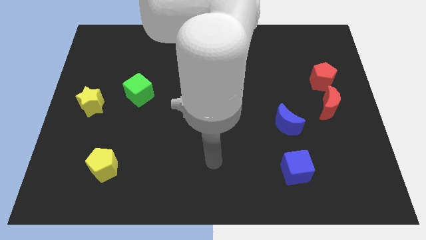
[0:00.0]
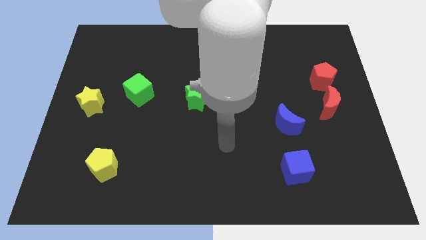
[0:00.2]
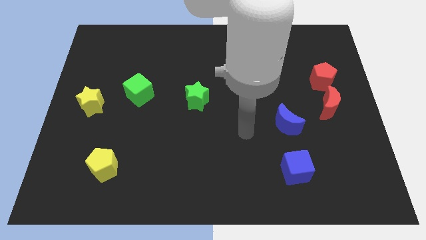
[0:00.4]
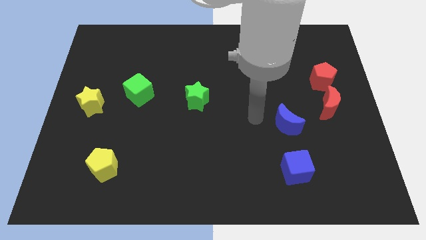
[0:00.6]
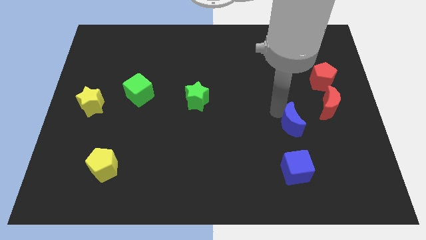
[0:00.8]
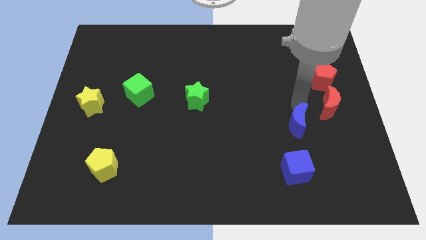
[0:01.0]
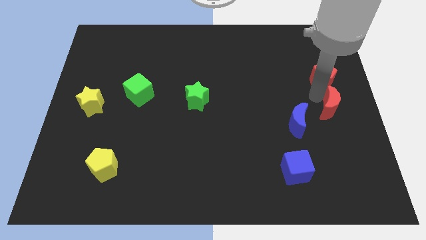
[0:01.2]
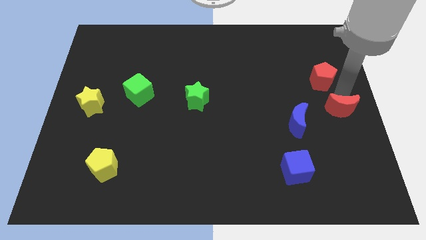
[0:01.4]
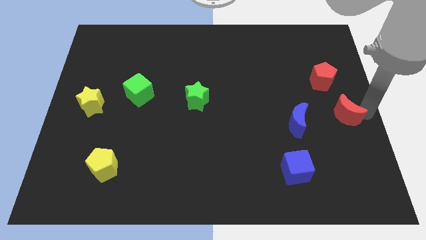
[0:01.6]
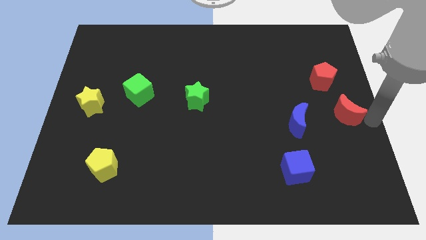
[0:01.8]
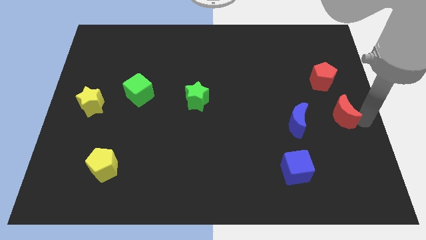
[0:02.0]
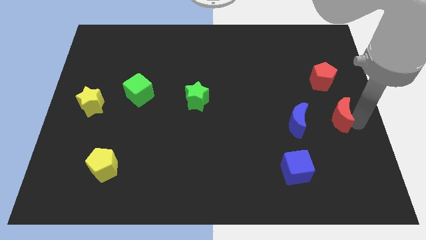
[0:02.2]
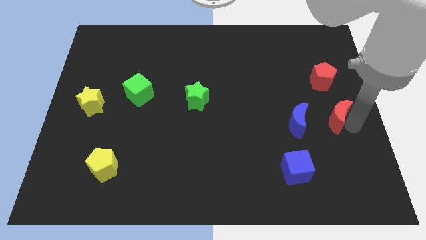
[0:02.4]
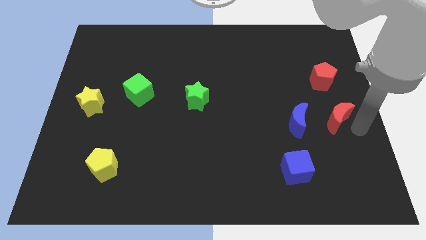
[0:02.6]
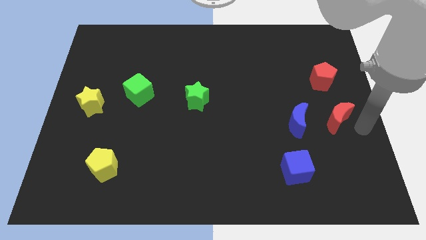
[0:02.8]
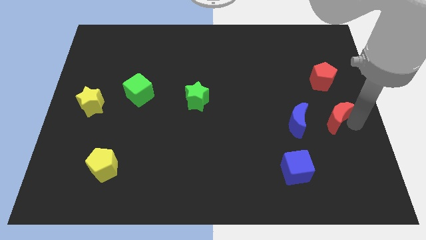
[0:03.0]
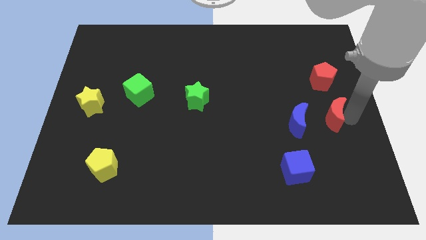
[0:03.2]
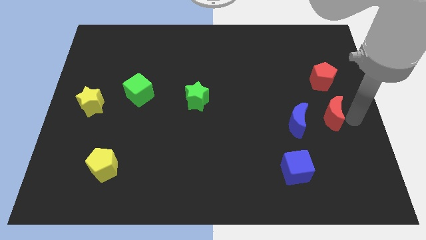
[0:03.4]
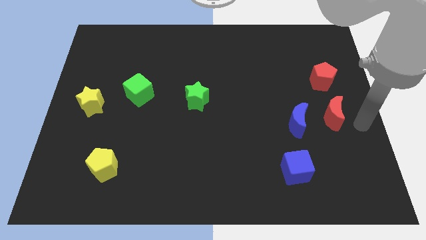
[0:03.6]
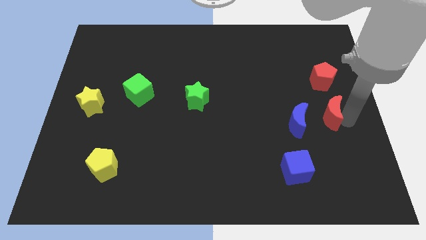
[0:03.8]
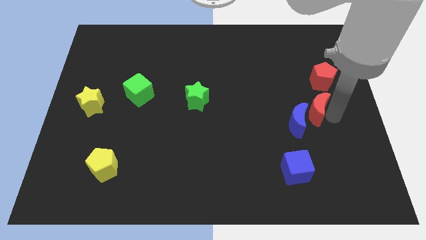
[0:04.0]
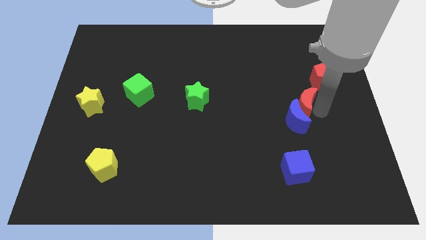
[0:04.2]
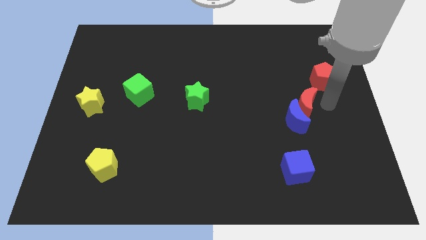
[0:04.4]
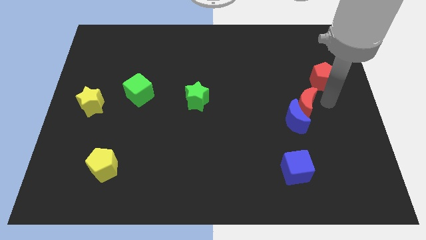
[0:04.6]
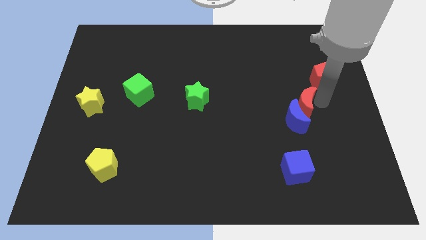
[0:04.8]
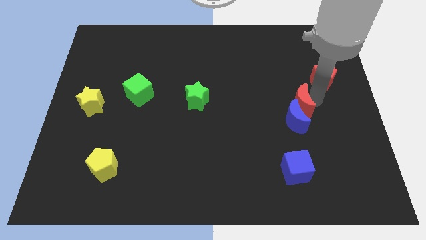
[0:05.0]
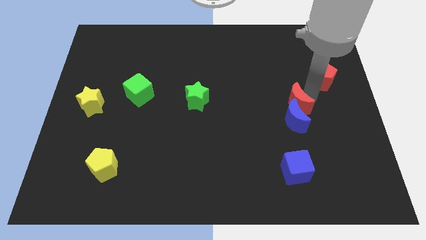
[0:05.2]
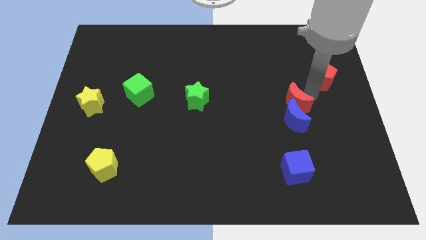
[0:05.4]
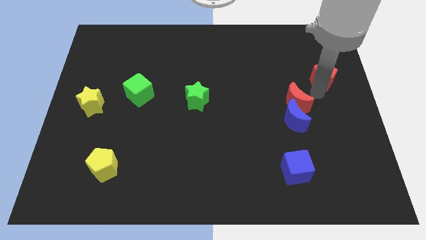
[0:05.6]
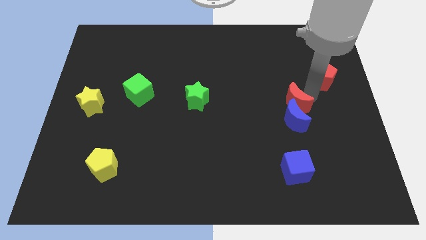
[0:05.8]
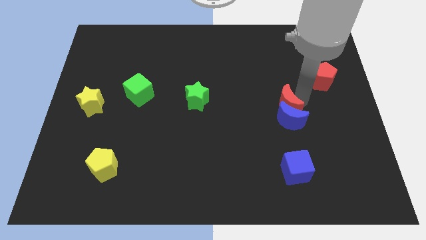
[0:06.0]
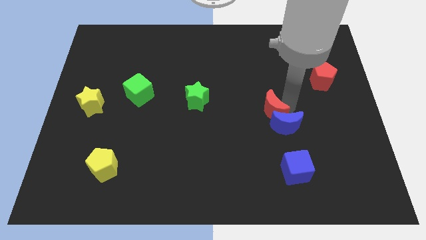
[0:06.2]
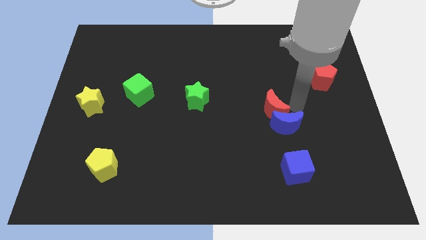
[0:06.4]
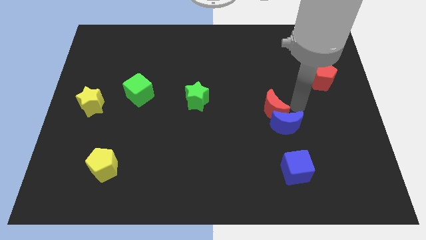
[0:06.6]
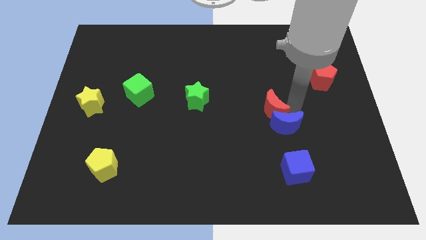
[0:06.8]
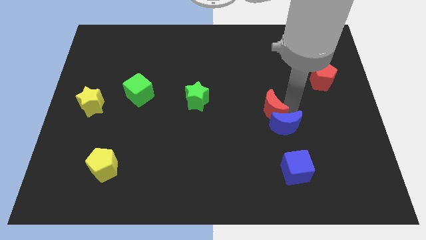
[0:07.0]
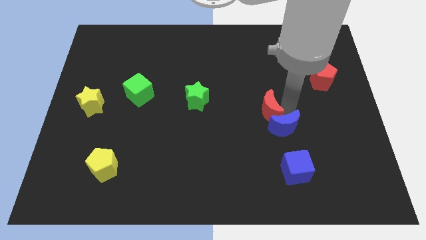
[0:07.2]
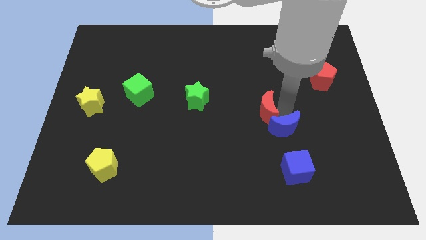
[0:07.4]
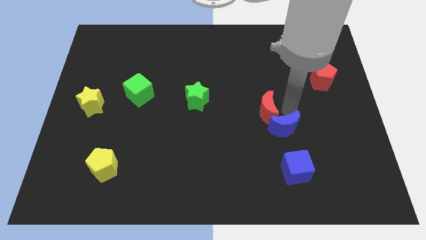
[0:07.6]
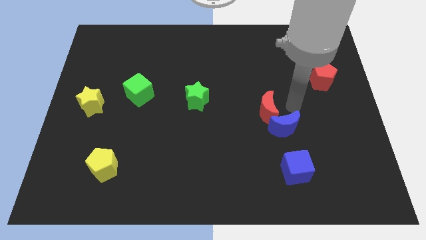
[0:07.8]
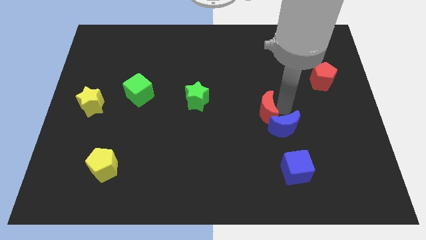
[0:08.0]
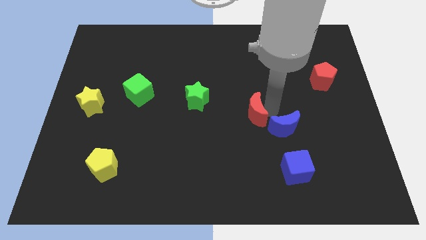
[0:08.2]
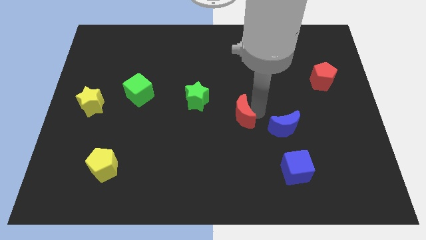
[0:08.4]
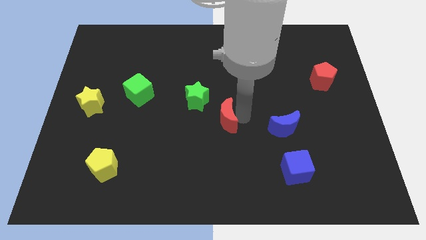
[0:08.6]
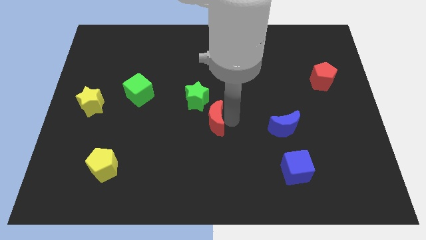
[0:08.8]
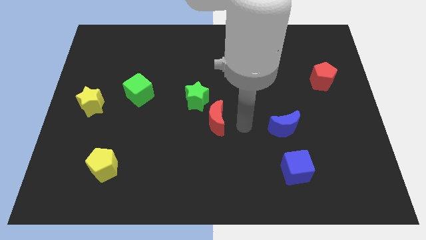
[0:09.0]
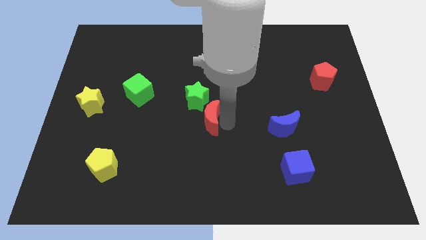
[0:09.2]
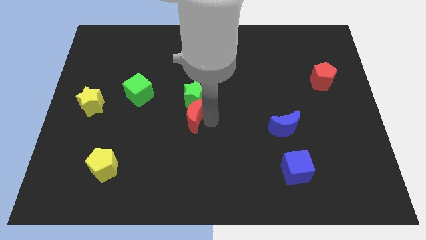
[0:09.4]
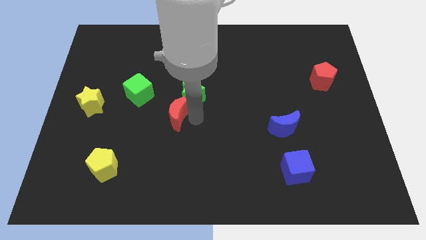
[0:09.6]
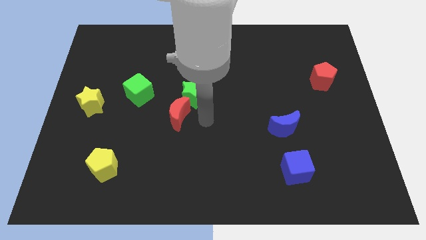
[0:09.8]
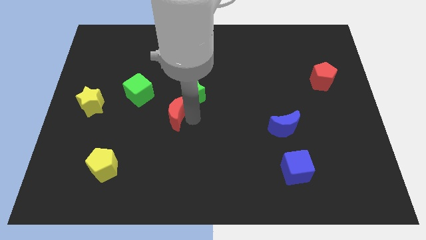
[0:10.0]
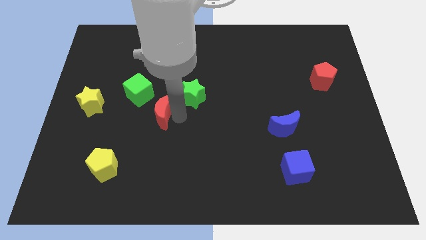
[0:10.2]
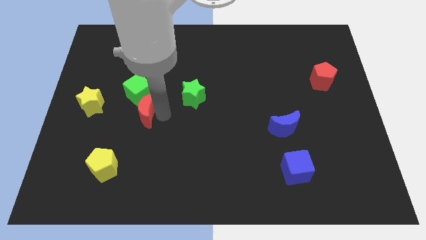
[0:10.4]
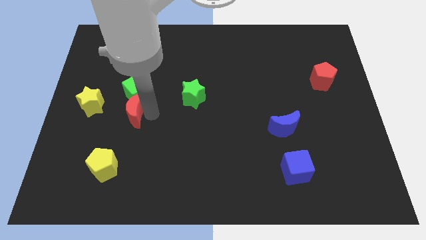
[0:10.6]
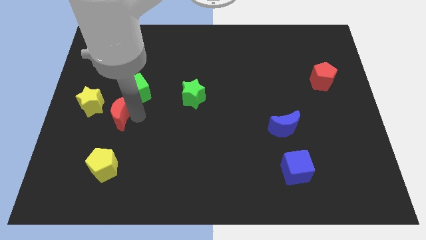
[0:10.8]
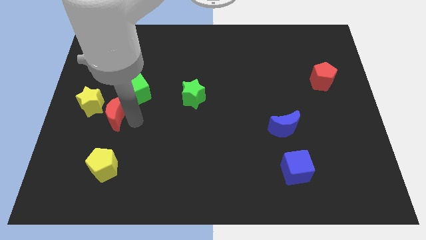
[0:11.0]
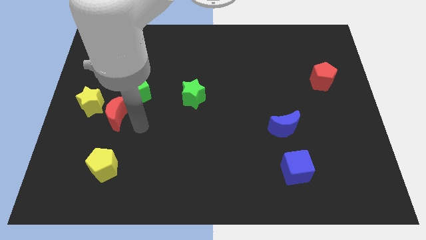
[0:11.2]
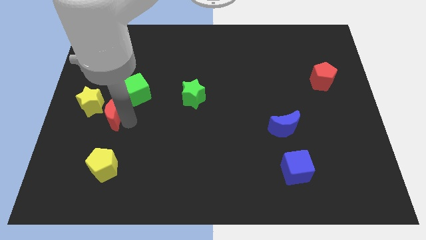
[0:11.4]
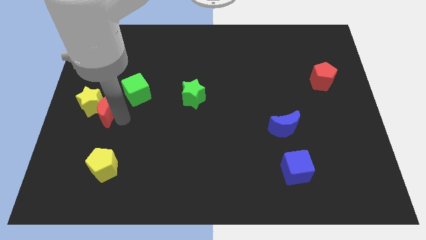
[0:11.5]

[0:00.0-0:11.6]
move the red moon next to the yellow star

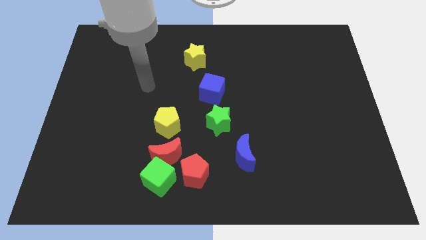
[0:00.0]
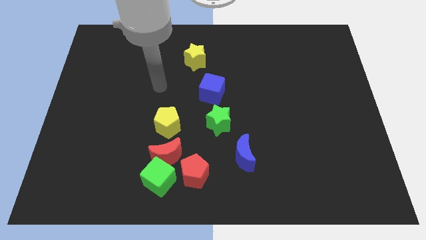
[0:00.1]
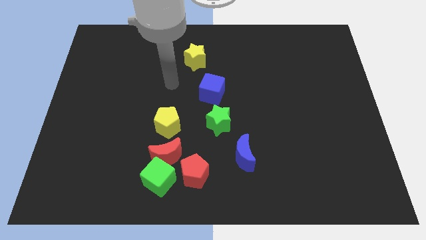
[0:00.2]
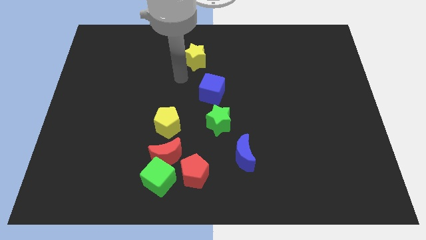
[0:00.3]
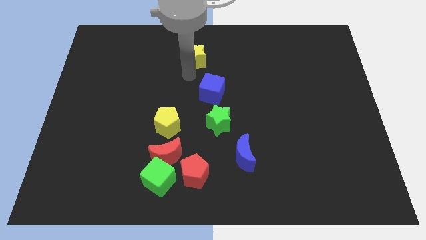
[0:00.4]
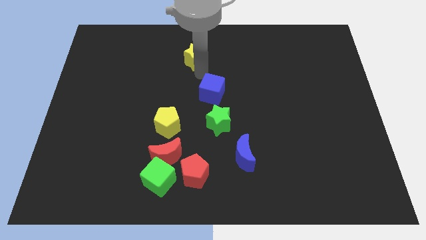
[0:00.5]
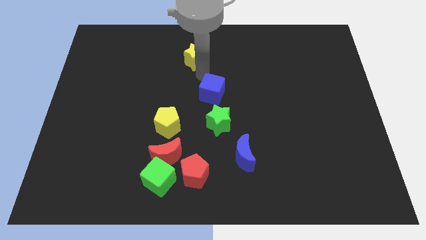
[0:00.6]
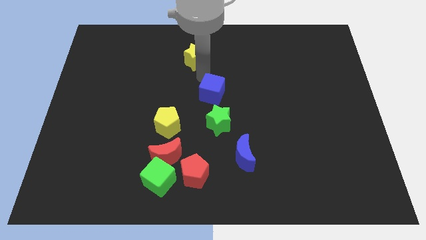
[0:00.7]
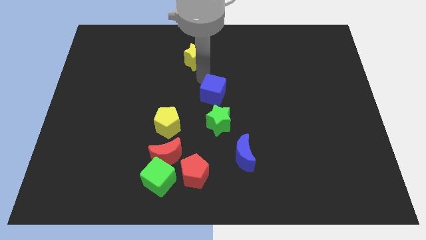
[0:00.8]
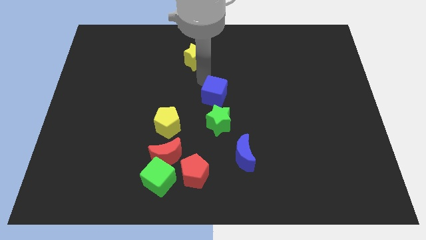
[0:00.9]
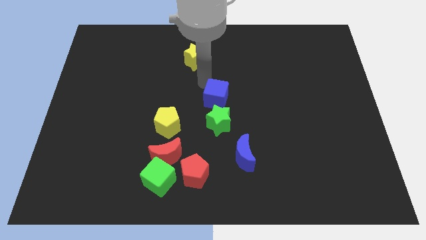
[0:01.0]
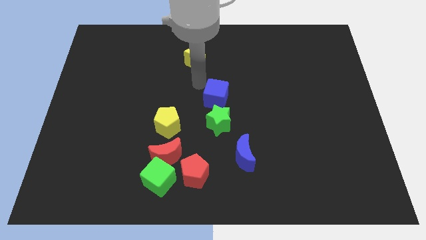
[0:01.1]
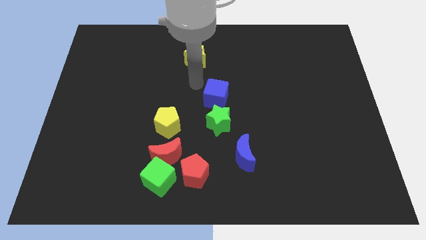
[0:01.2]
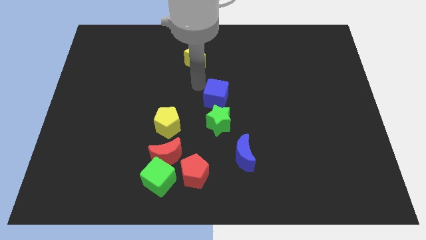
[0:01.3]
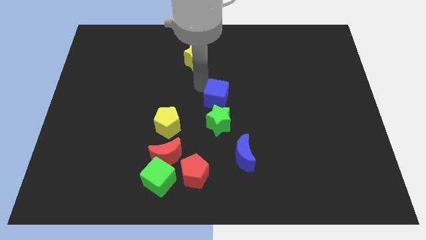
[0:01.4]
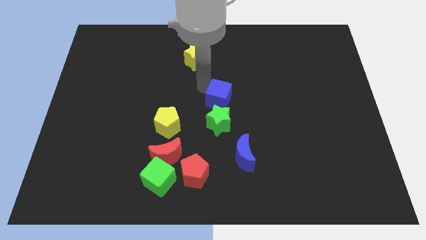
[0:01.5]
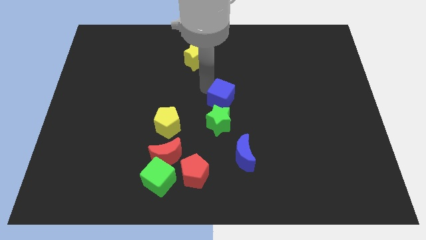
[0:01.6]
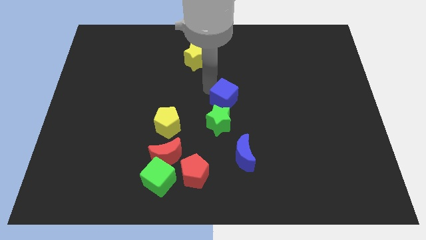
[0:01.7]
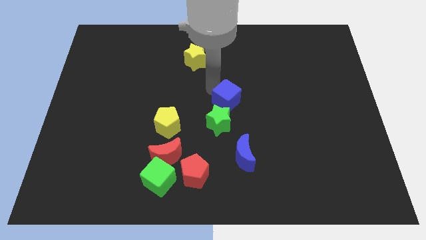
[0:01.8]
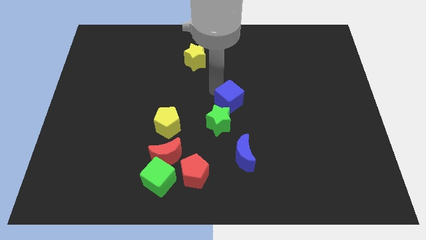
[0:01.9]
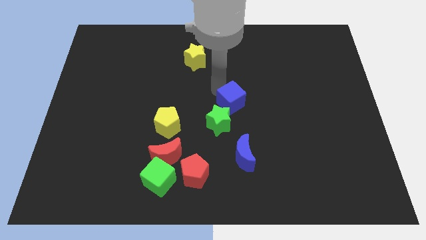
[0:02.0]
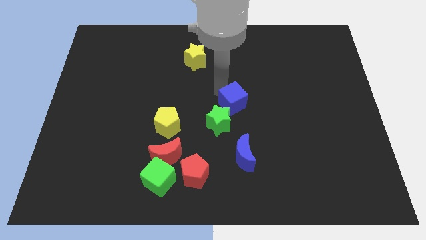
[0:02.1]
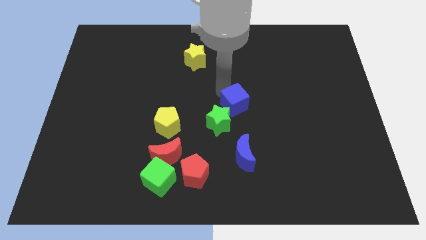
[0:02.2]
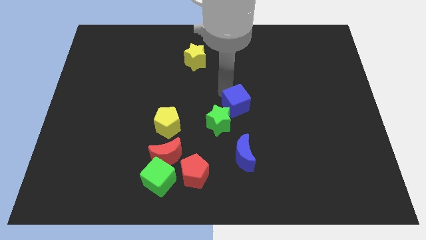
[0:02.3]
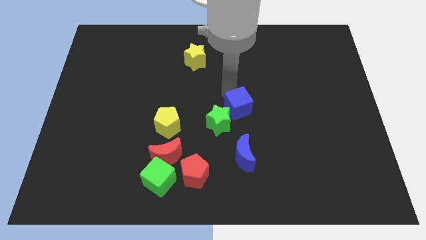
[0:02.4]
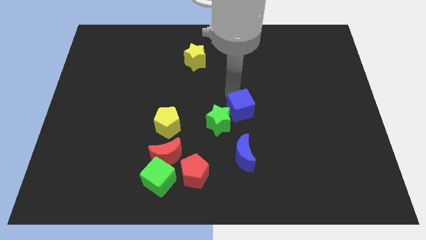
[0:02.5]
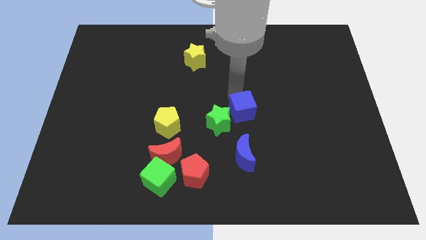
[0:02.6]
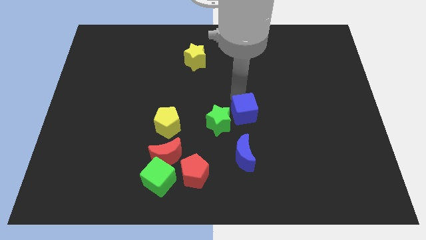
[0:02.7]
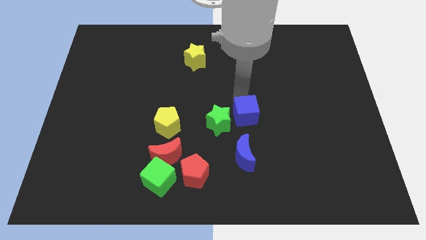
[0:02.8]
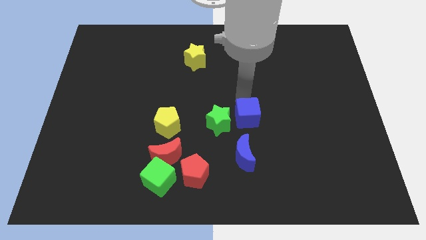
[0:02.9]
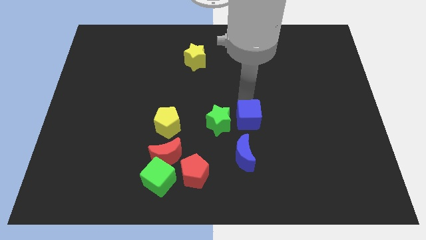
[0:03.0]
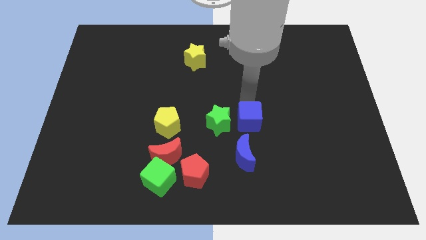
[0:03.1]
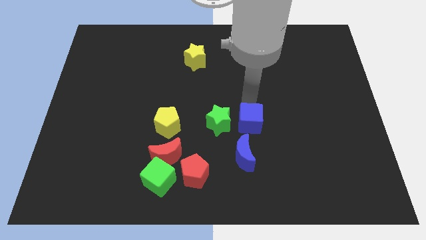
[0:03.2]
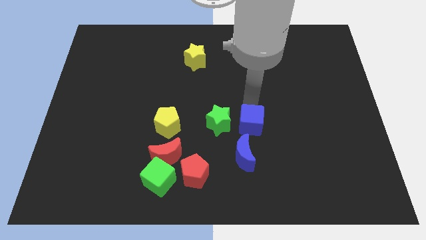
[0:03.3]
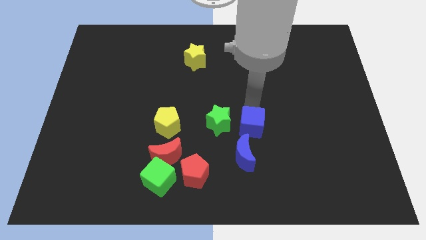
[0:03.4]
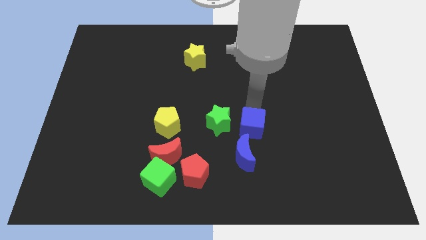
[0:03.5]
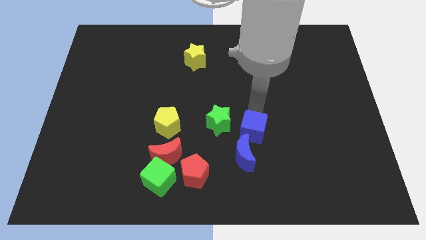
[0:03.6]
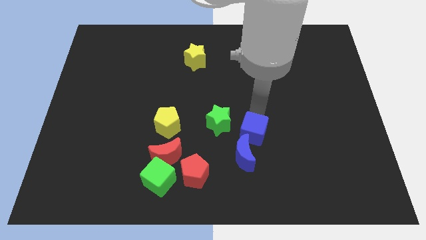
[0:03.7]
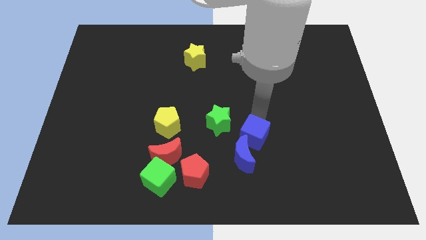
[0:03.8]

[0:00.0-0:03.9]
move the blue cube towards the blue moon
